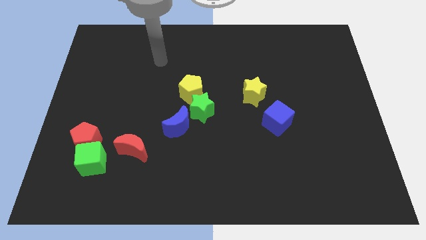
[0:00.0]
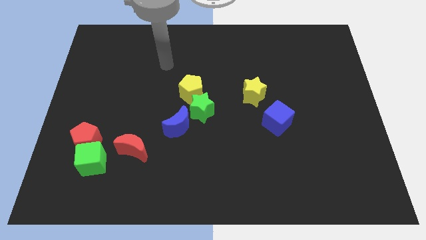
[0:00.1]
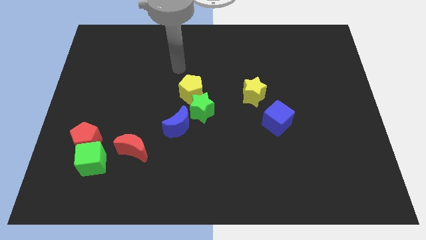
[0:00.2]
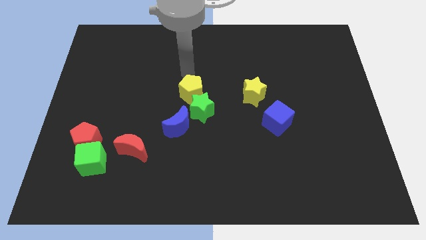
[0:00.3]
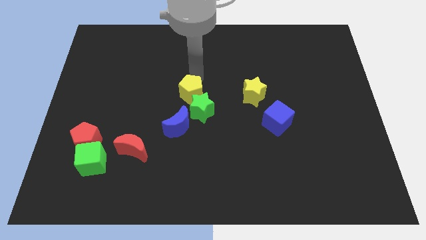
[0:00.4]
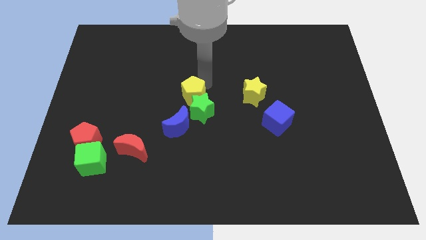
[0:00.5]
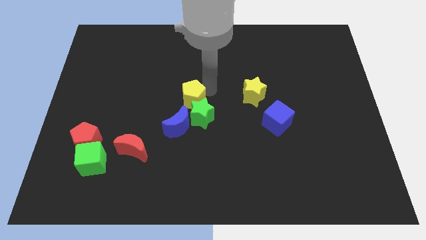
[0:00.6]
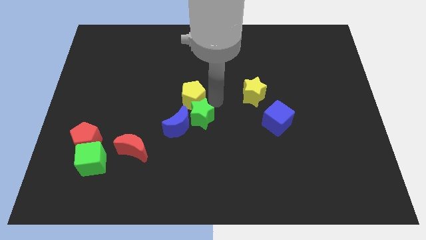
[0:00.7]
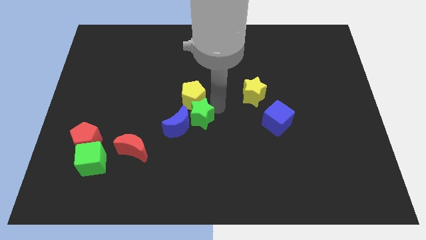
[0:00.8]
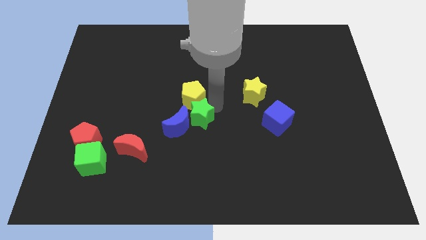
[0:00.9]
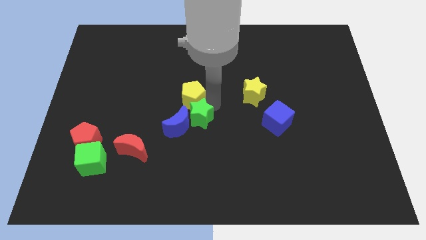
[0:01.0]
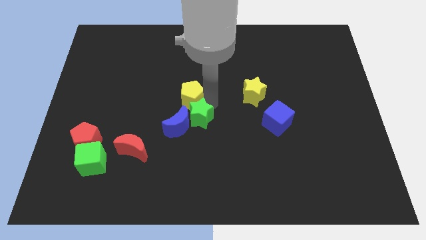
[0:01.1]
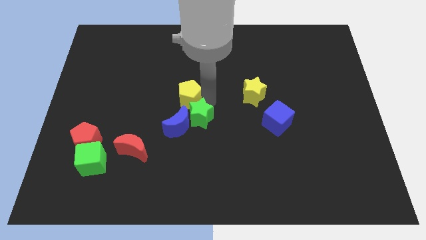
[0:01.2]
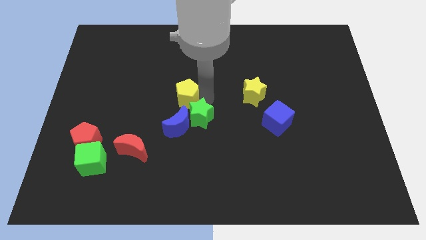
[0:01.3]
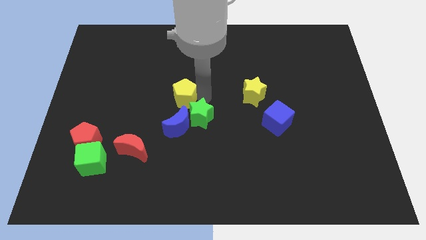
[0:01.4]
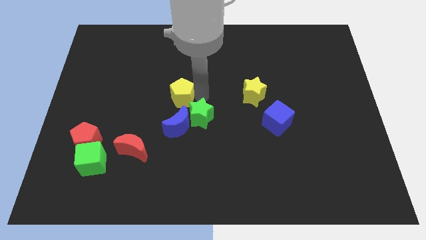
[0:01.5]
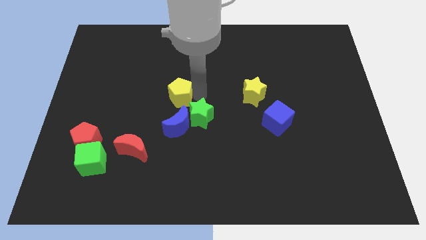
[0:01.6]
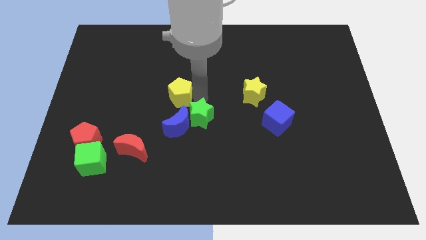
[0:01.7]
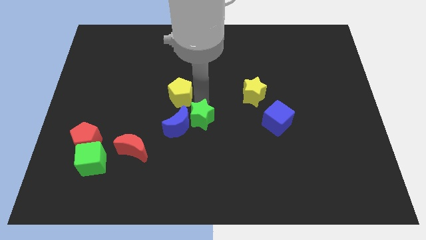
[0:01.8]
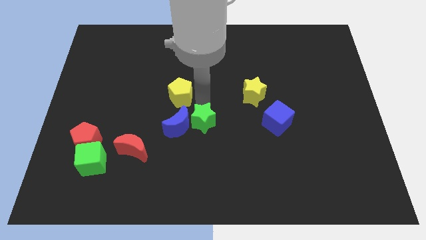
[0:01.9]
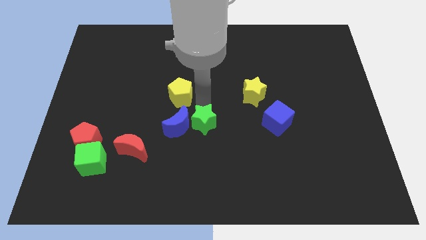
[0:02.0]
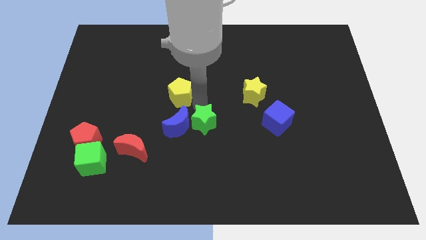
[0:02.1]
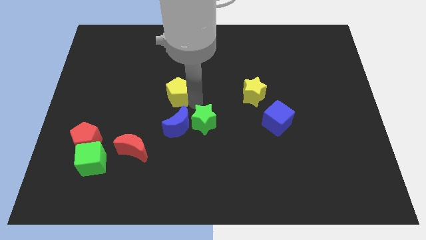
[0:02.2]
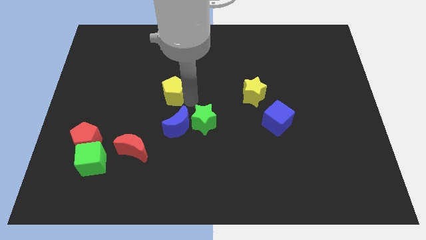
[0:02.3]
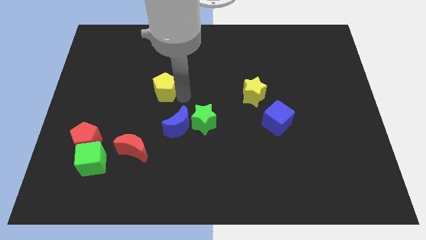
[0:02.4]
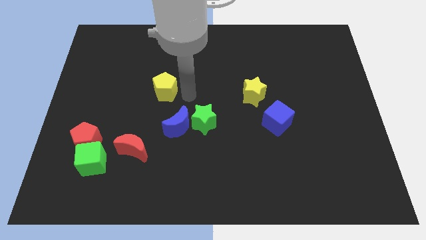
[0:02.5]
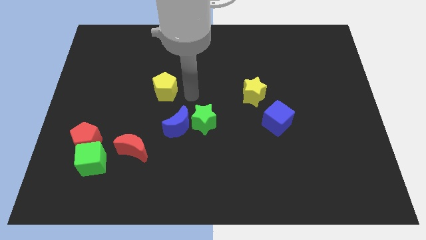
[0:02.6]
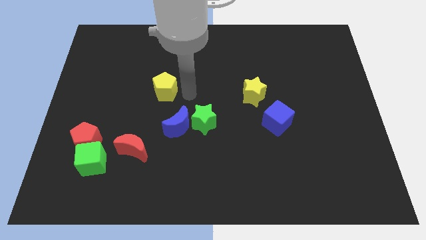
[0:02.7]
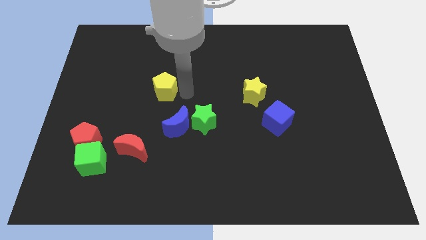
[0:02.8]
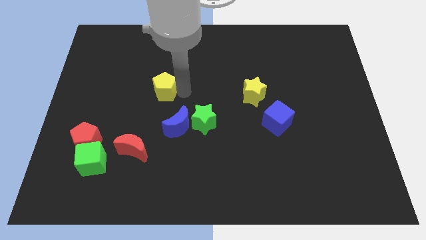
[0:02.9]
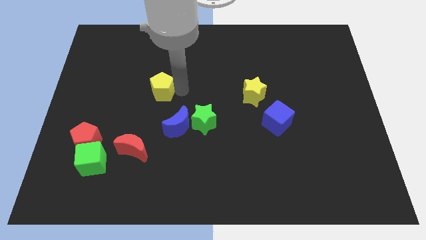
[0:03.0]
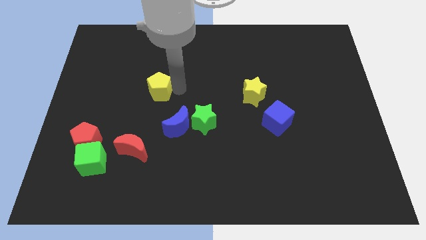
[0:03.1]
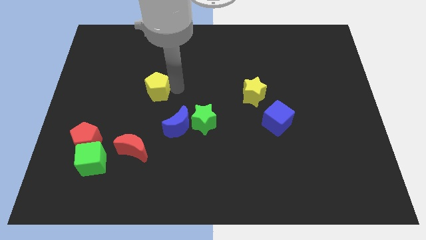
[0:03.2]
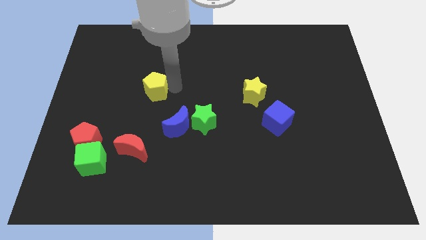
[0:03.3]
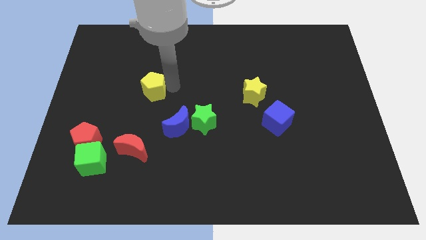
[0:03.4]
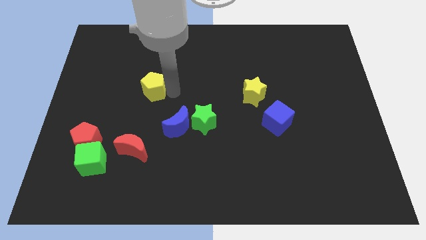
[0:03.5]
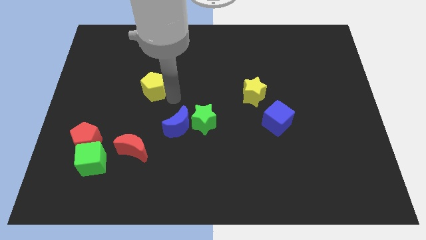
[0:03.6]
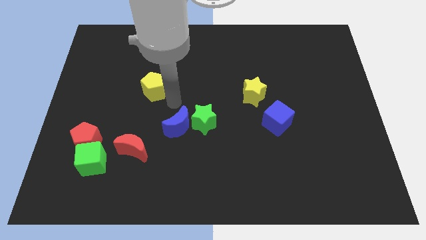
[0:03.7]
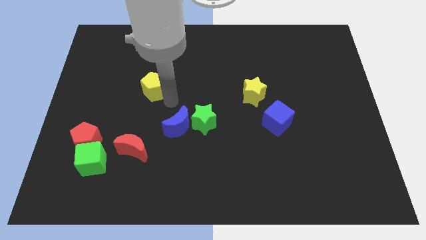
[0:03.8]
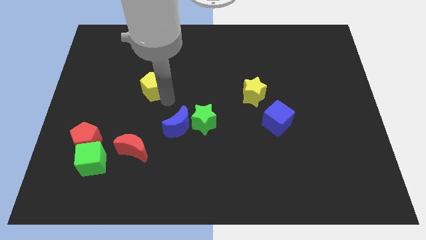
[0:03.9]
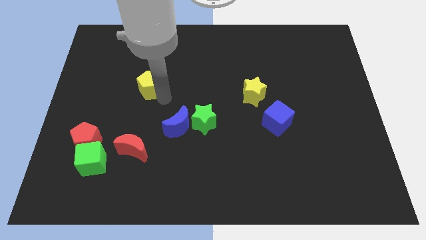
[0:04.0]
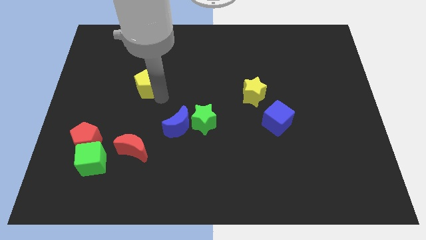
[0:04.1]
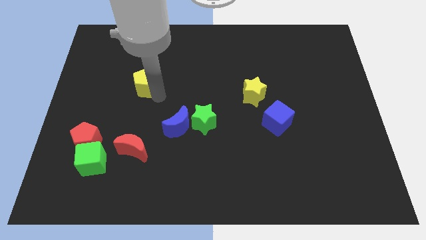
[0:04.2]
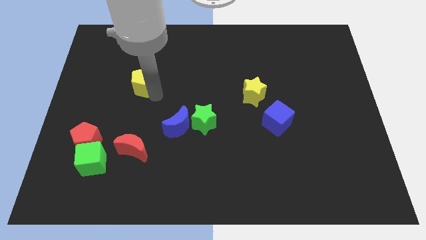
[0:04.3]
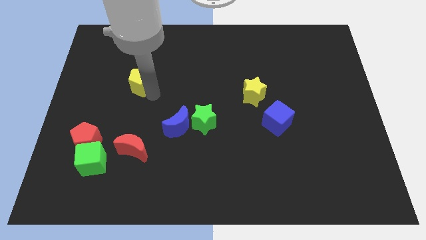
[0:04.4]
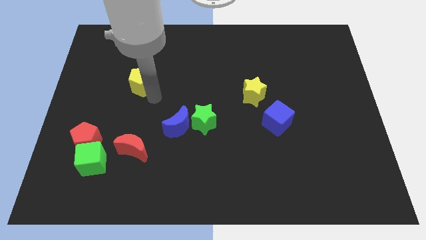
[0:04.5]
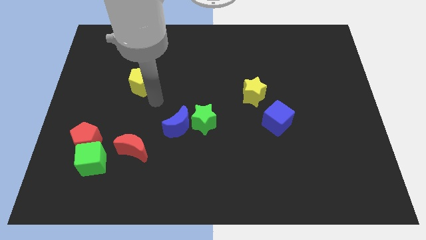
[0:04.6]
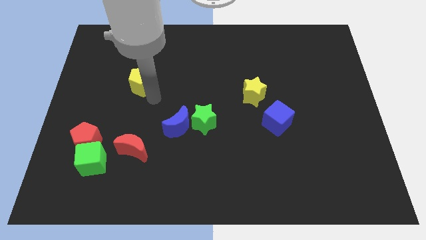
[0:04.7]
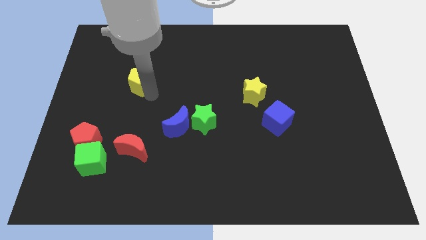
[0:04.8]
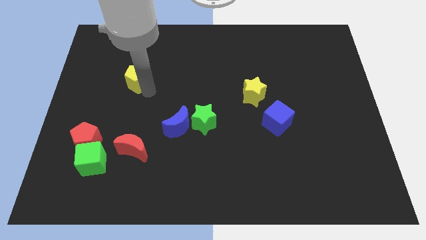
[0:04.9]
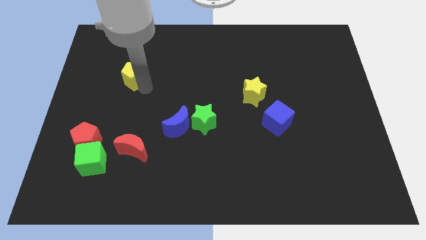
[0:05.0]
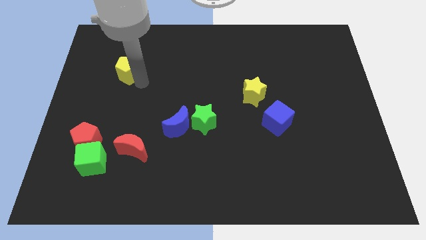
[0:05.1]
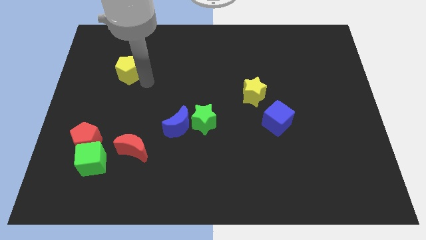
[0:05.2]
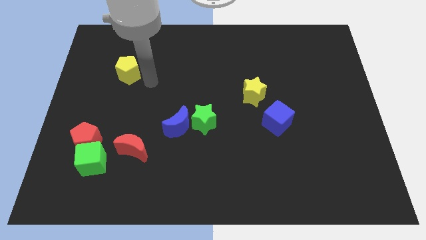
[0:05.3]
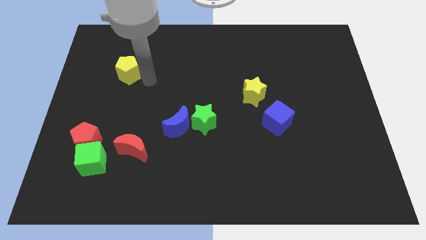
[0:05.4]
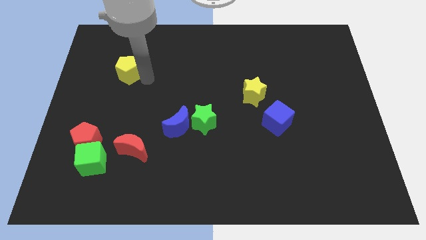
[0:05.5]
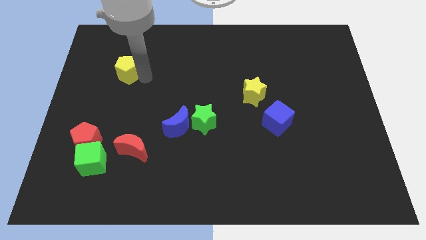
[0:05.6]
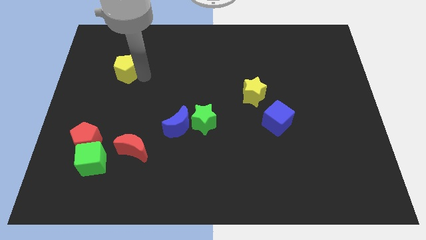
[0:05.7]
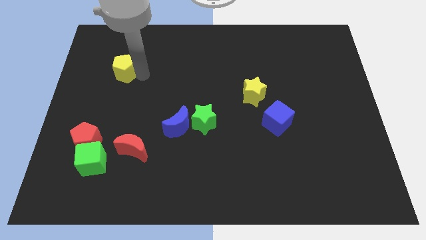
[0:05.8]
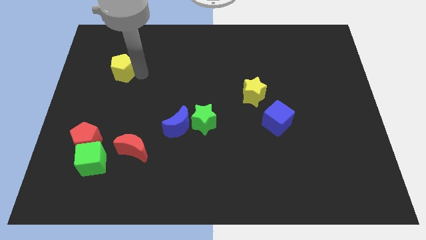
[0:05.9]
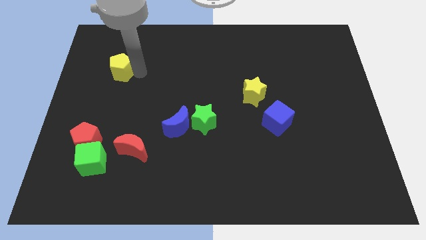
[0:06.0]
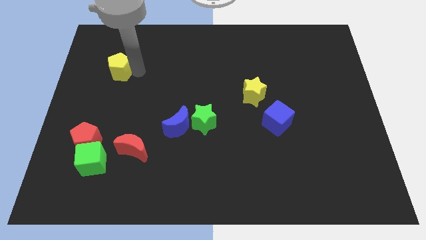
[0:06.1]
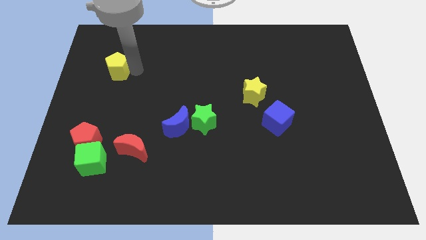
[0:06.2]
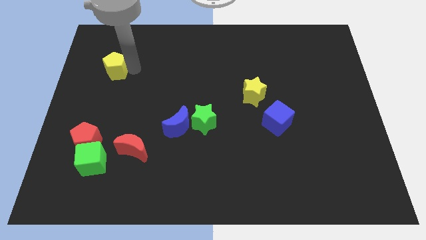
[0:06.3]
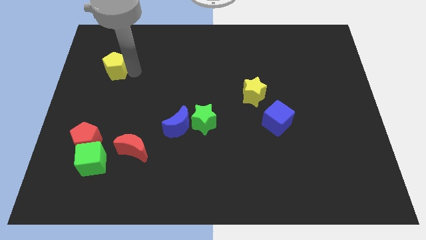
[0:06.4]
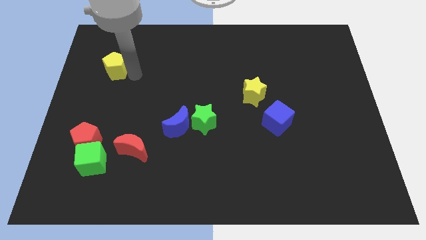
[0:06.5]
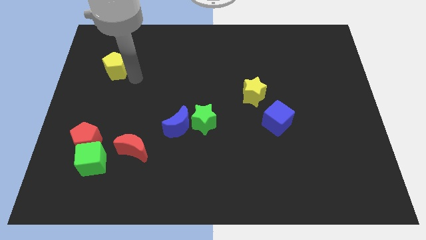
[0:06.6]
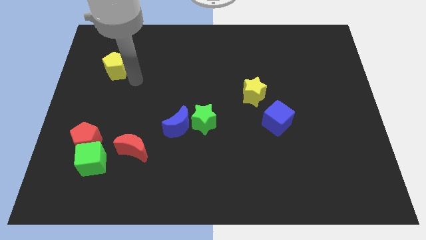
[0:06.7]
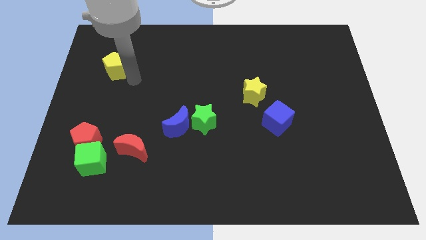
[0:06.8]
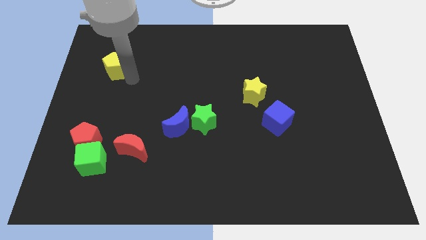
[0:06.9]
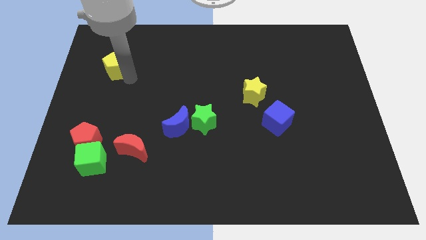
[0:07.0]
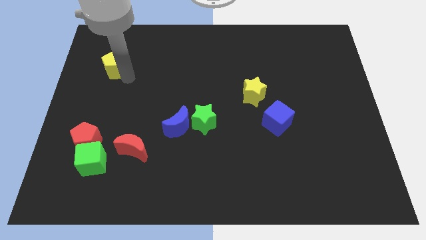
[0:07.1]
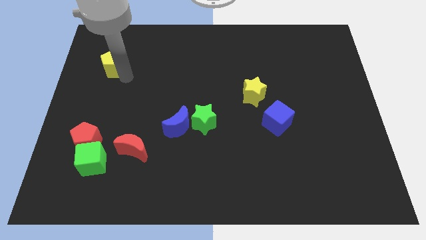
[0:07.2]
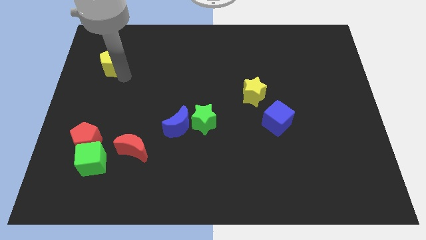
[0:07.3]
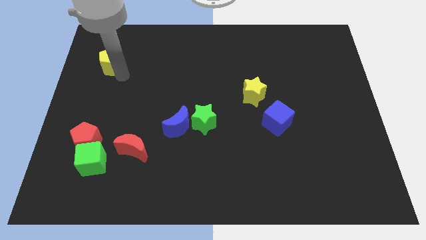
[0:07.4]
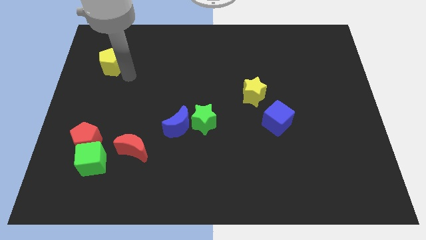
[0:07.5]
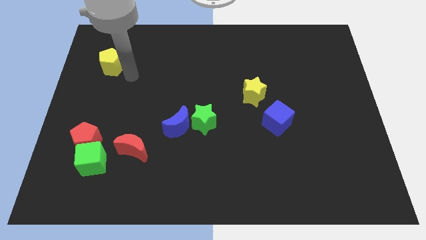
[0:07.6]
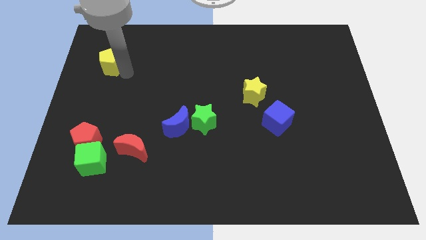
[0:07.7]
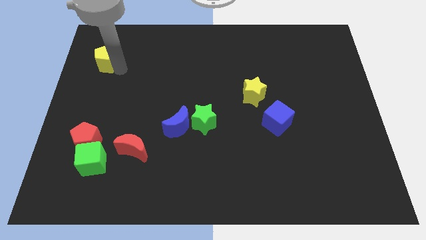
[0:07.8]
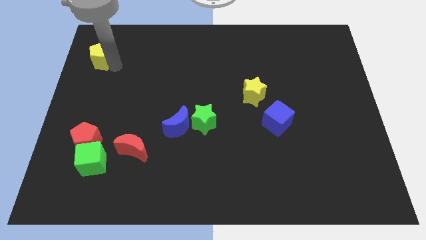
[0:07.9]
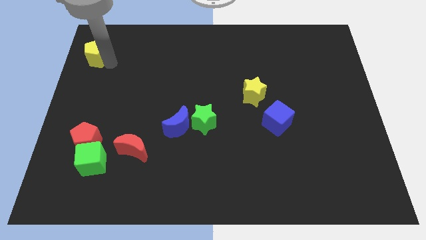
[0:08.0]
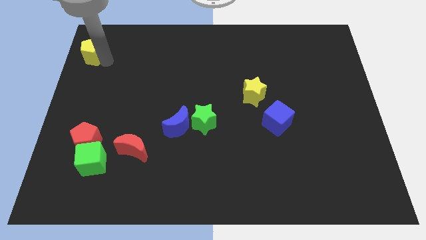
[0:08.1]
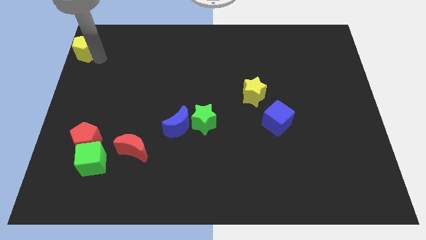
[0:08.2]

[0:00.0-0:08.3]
put the yellow pentagon to the top left of the board
